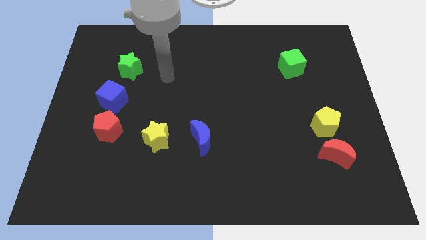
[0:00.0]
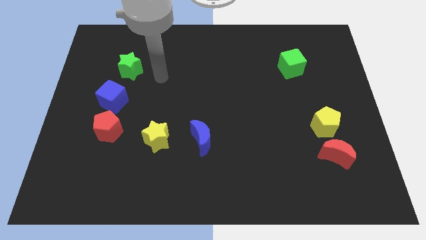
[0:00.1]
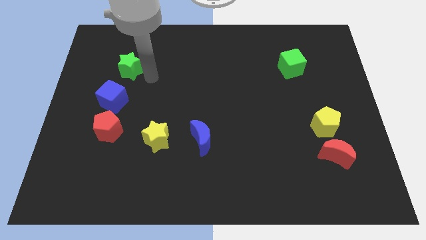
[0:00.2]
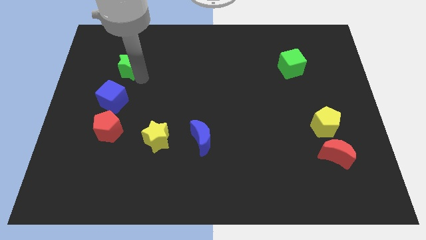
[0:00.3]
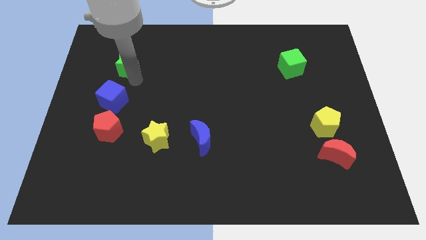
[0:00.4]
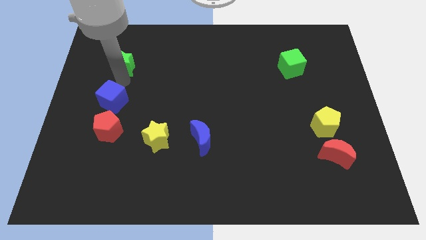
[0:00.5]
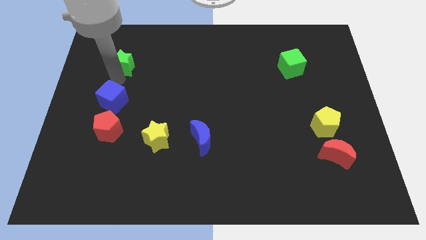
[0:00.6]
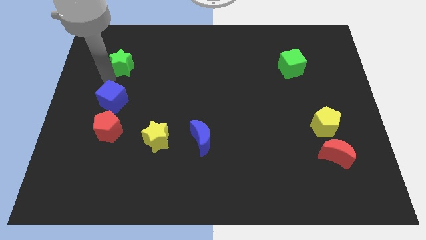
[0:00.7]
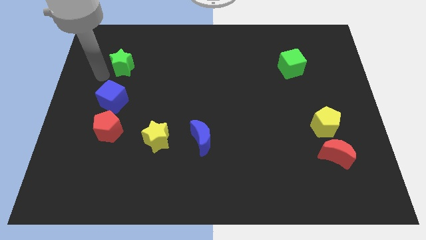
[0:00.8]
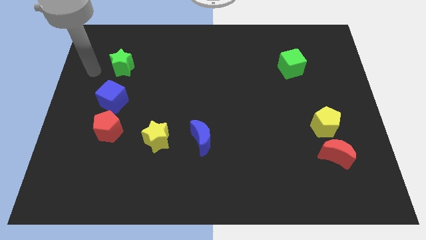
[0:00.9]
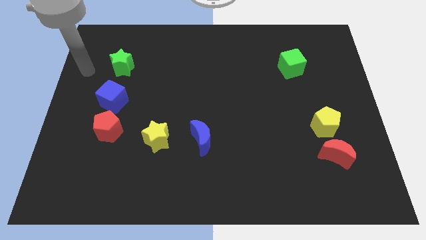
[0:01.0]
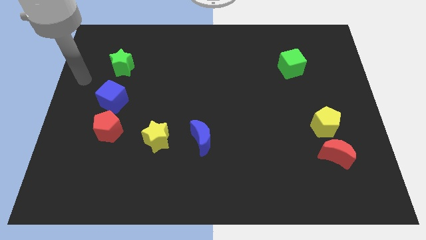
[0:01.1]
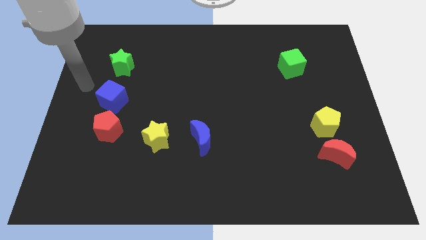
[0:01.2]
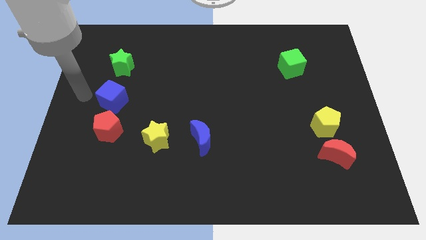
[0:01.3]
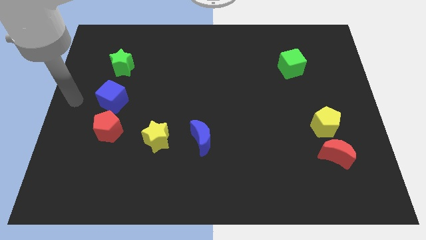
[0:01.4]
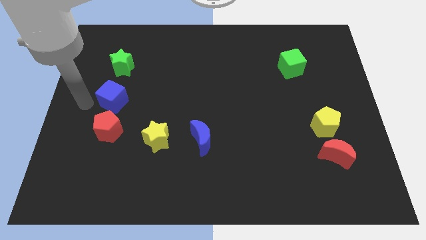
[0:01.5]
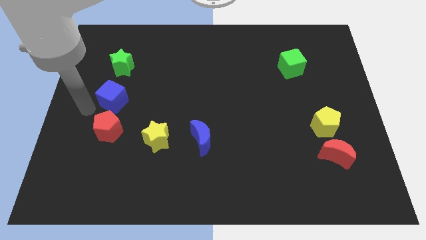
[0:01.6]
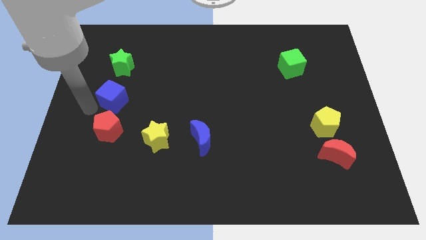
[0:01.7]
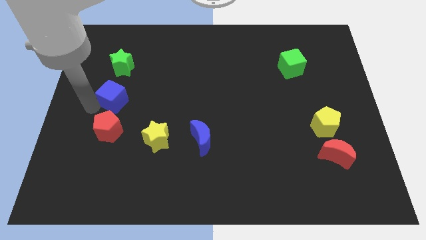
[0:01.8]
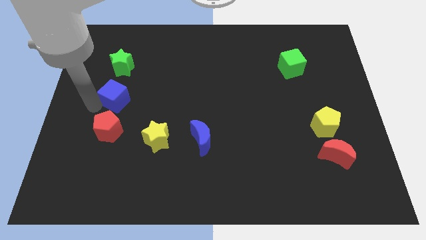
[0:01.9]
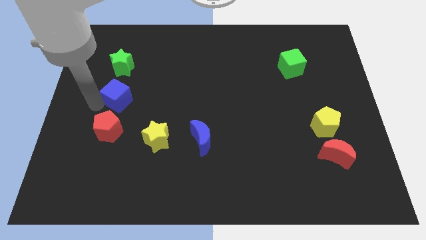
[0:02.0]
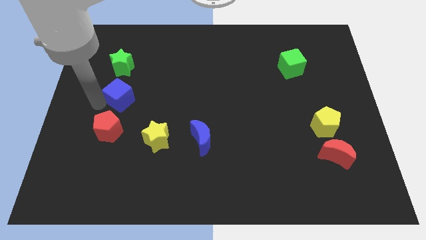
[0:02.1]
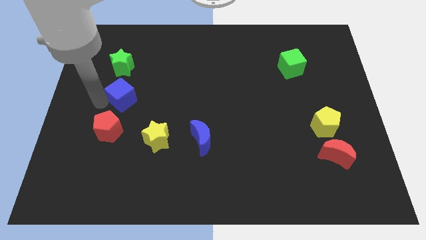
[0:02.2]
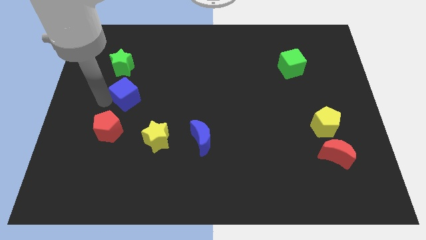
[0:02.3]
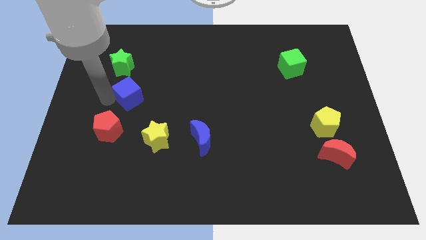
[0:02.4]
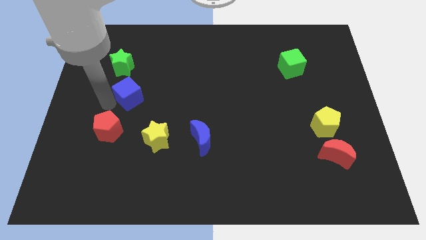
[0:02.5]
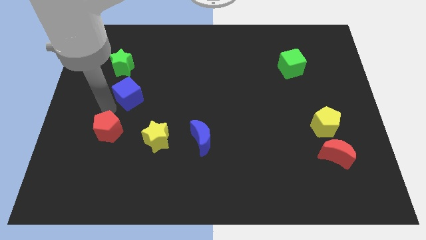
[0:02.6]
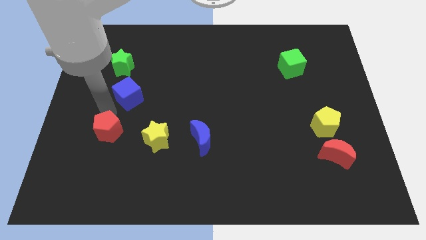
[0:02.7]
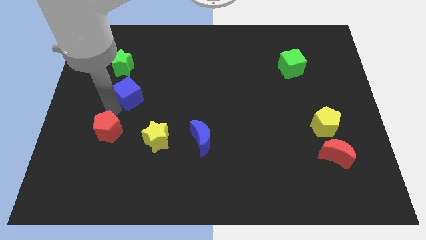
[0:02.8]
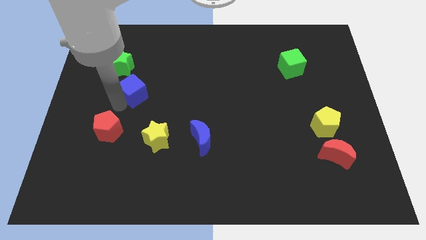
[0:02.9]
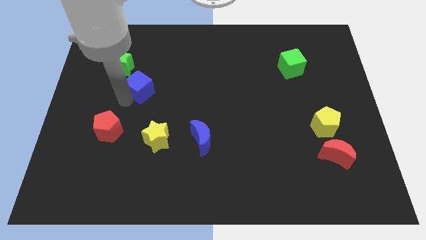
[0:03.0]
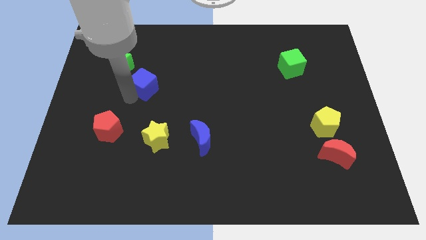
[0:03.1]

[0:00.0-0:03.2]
slide the blue cube diagonally upwards and to the right somewhat

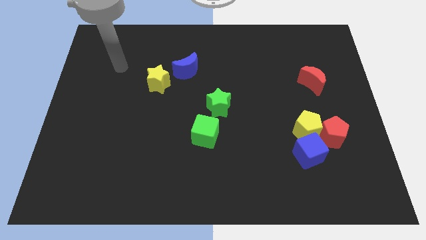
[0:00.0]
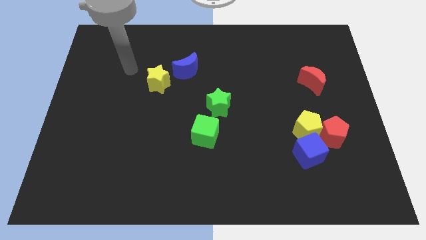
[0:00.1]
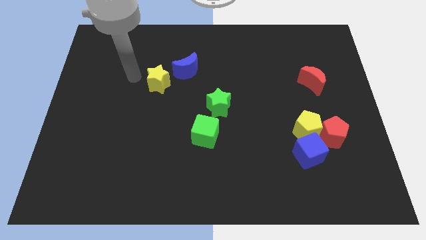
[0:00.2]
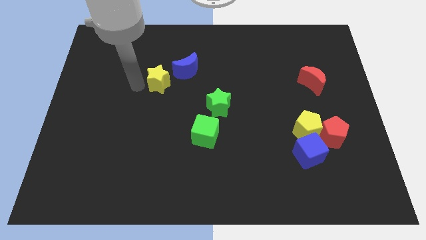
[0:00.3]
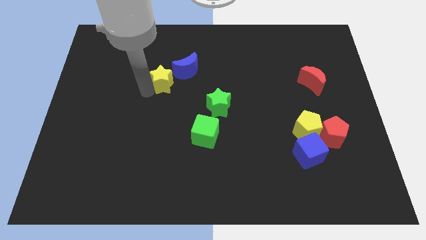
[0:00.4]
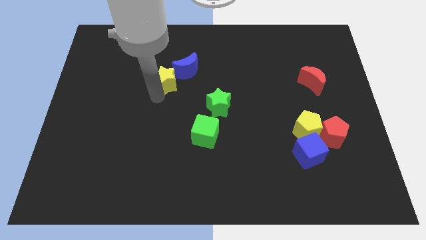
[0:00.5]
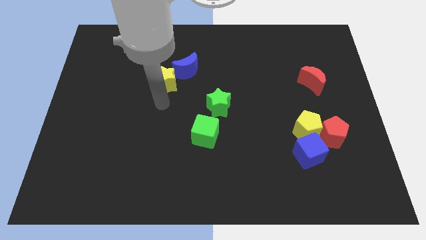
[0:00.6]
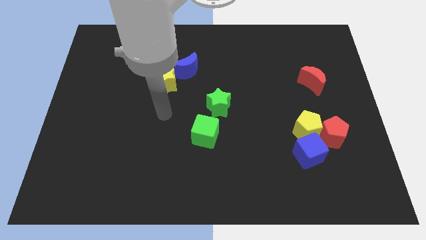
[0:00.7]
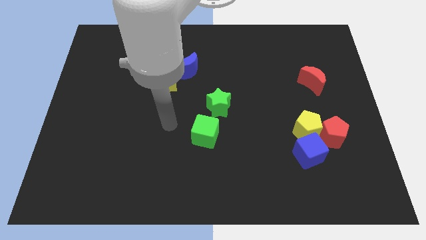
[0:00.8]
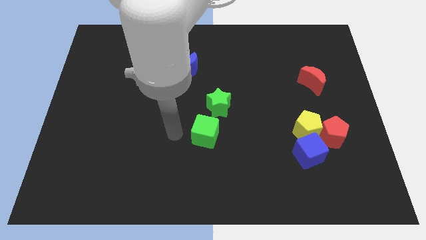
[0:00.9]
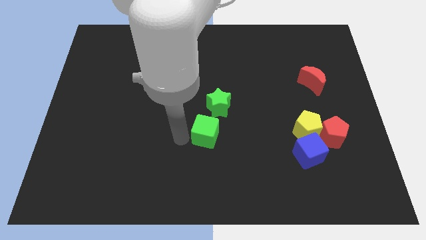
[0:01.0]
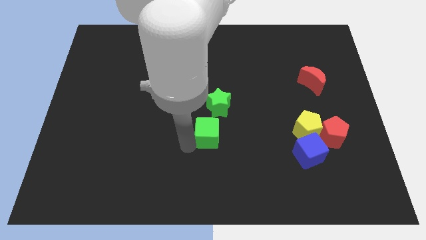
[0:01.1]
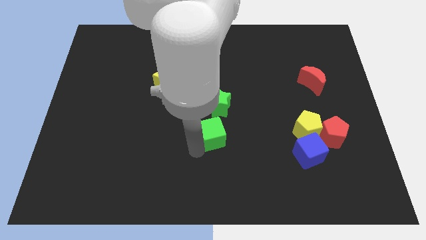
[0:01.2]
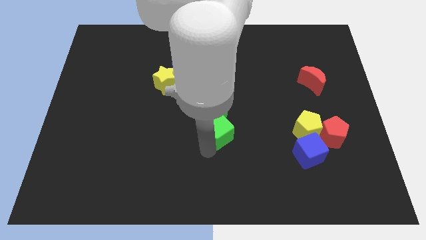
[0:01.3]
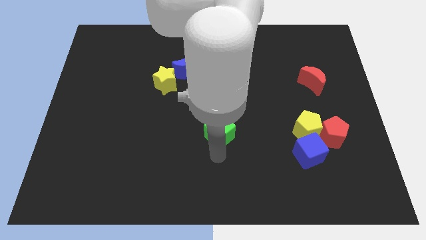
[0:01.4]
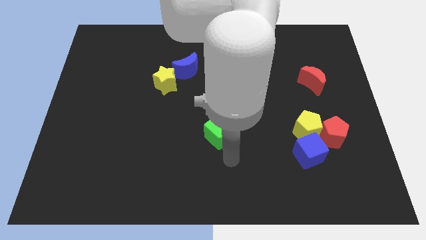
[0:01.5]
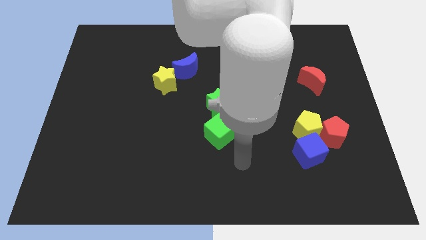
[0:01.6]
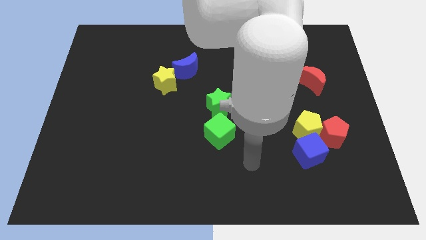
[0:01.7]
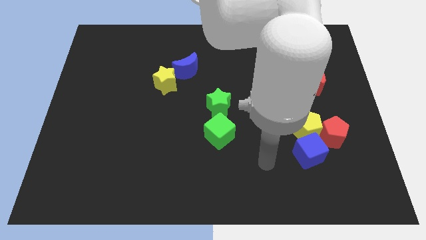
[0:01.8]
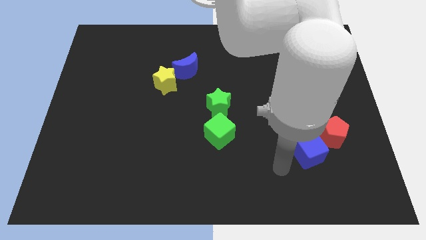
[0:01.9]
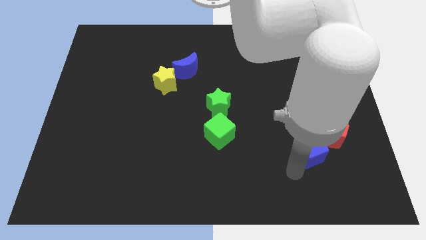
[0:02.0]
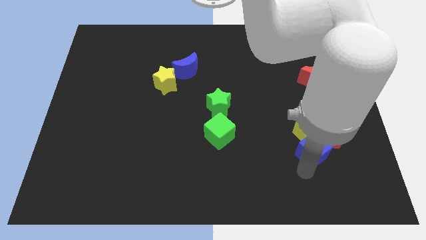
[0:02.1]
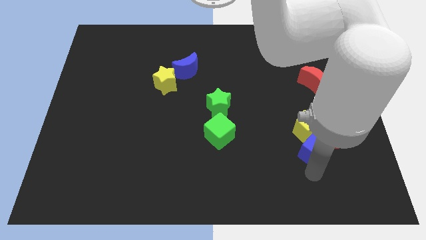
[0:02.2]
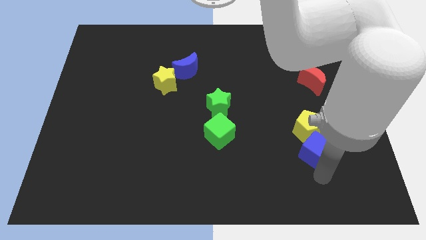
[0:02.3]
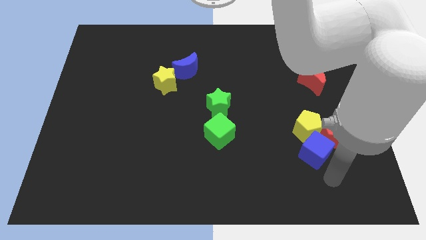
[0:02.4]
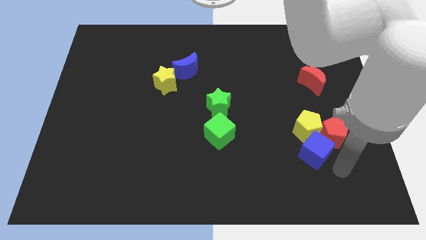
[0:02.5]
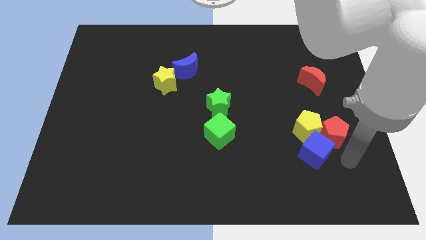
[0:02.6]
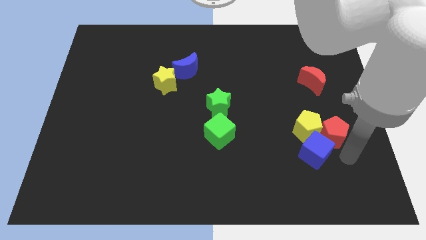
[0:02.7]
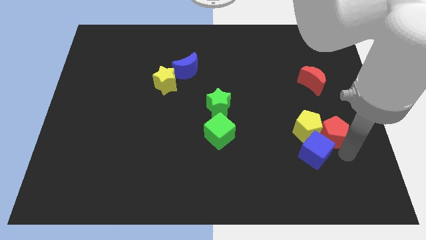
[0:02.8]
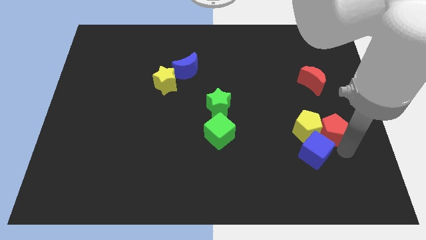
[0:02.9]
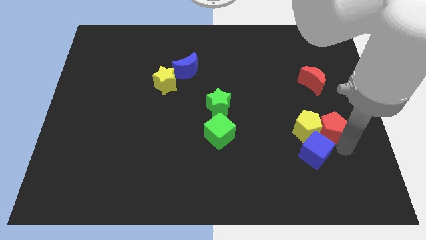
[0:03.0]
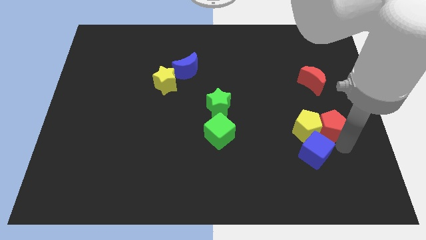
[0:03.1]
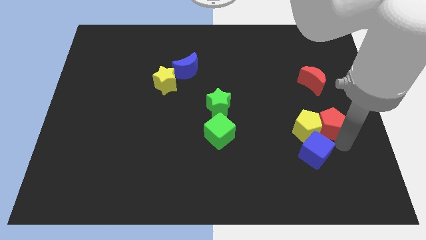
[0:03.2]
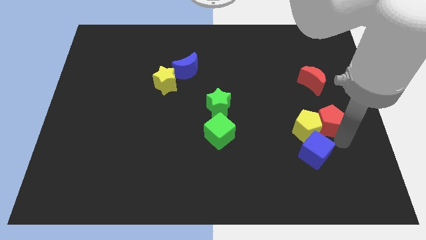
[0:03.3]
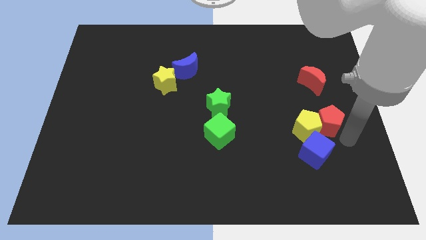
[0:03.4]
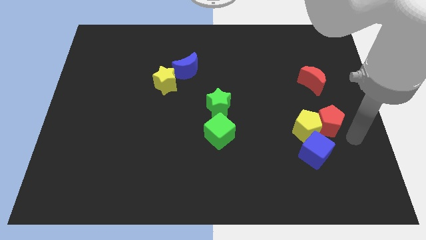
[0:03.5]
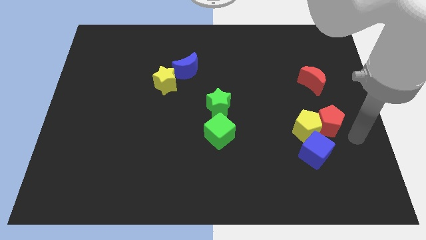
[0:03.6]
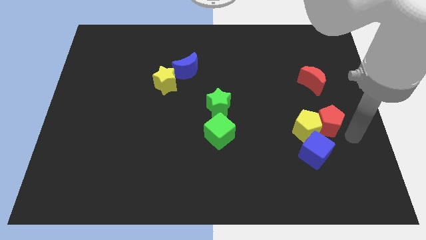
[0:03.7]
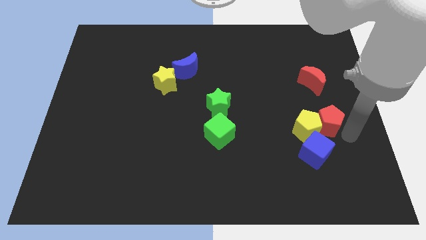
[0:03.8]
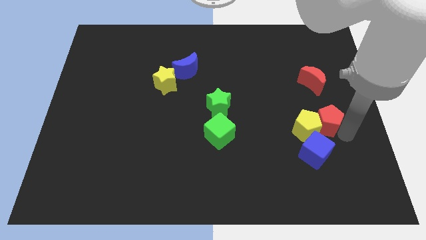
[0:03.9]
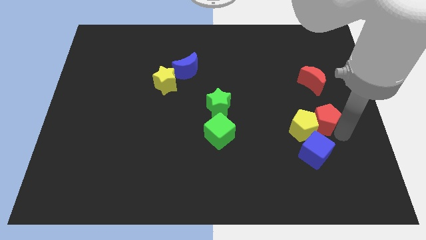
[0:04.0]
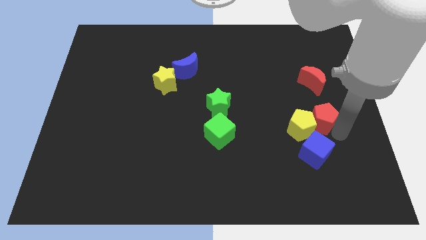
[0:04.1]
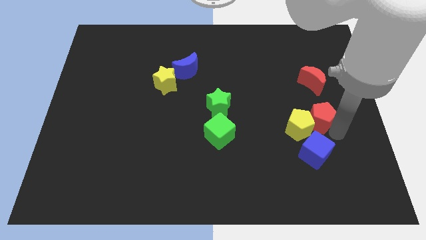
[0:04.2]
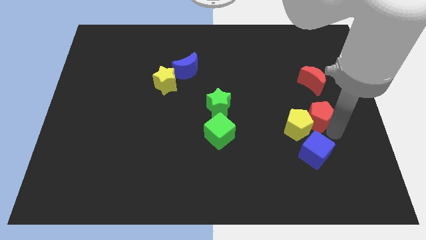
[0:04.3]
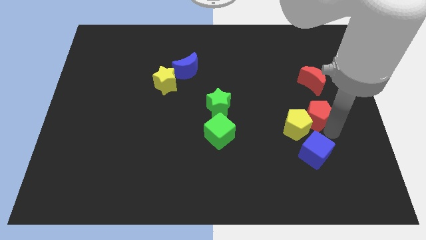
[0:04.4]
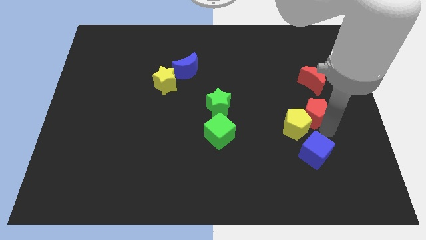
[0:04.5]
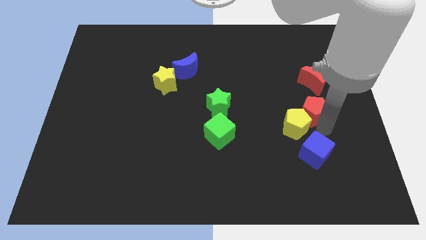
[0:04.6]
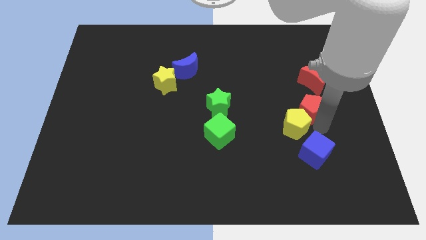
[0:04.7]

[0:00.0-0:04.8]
slightly move the red pentagon upwards and to the left
